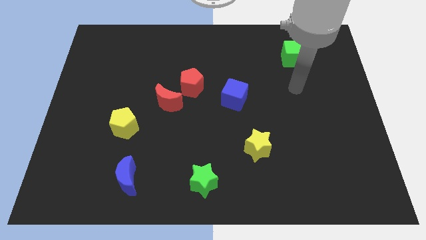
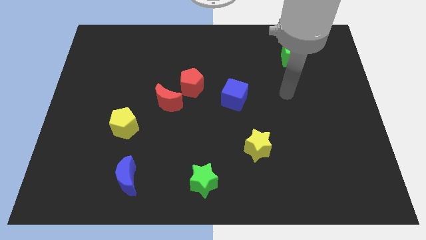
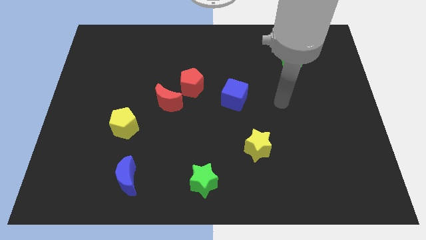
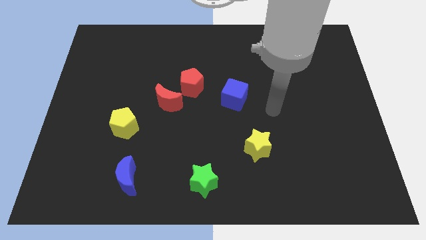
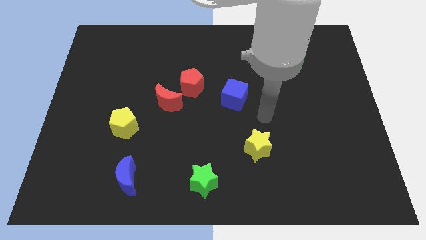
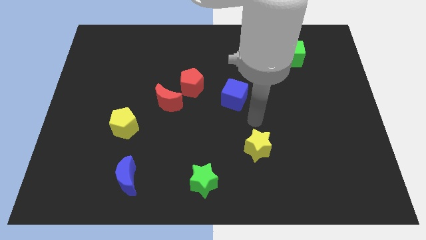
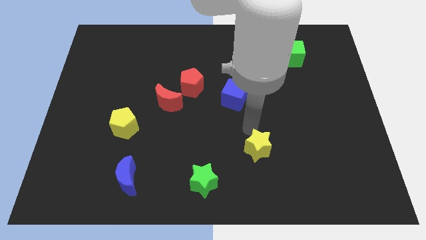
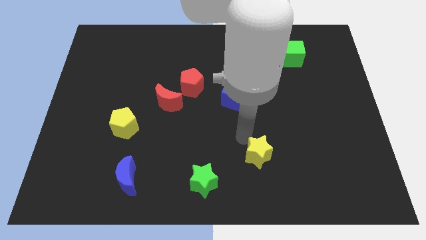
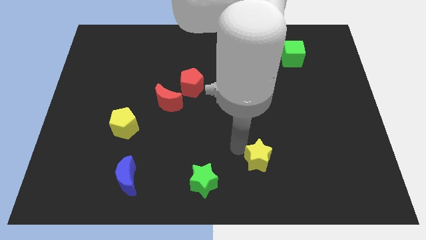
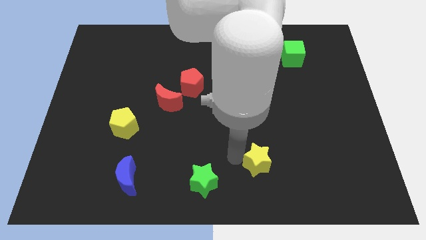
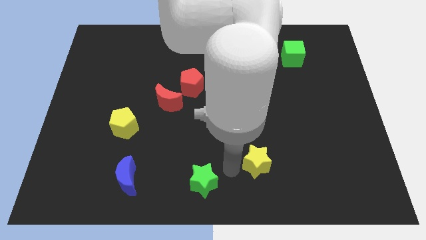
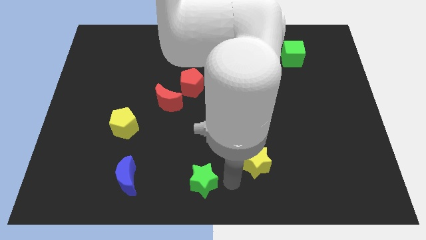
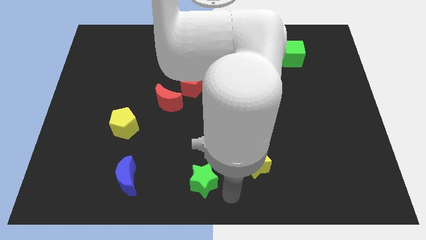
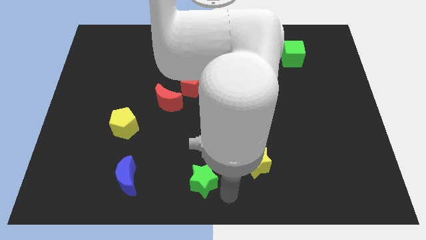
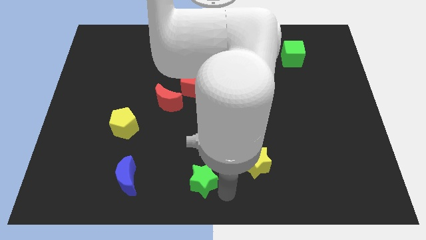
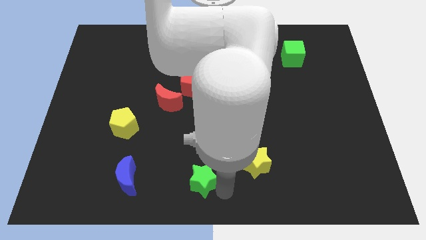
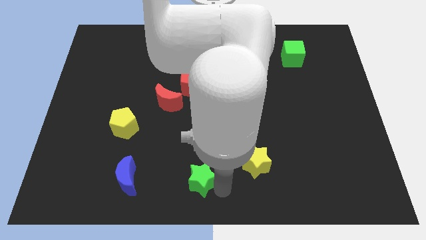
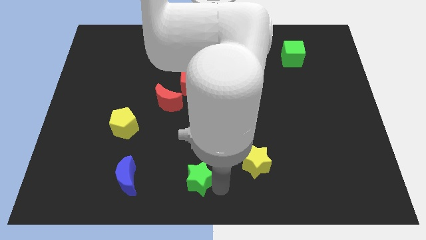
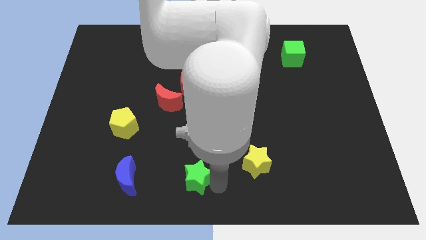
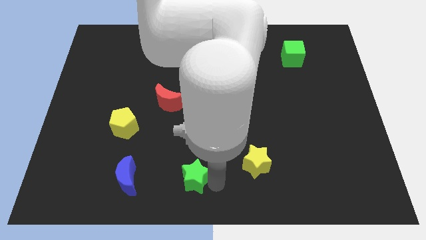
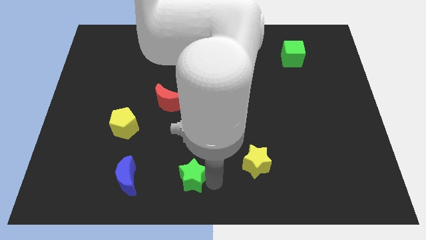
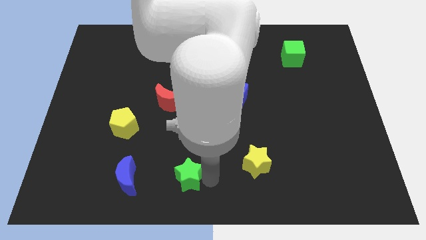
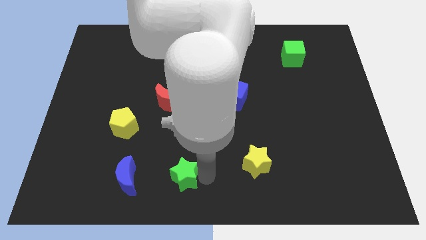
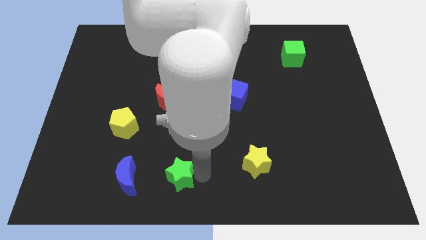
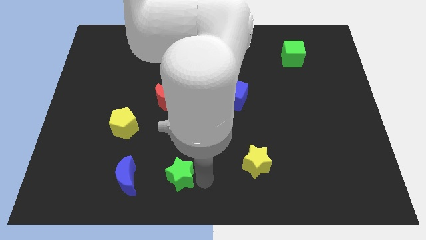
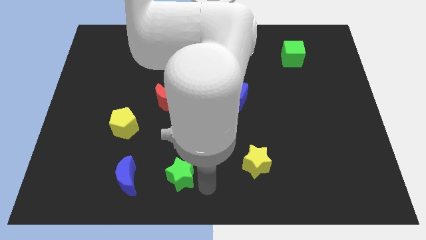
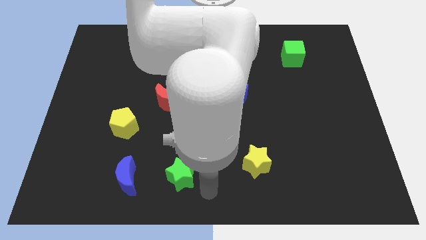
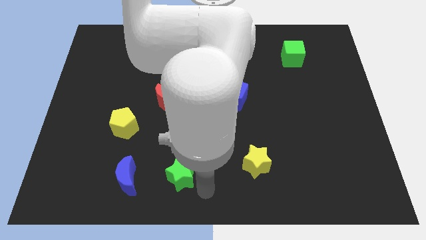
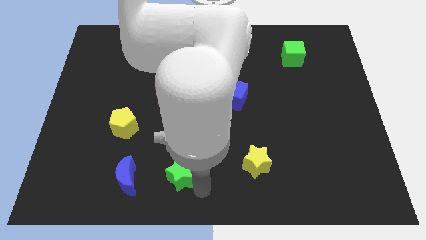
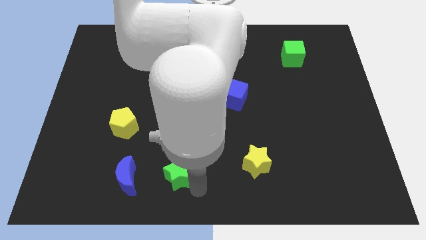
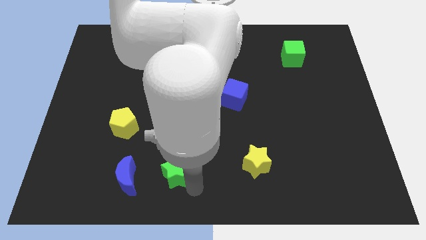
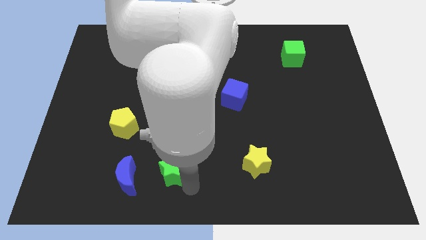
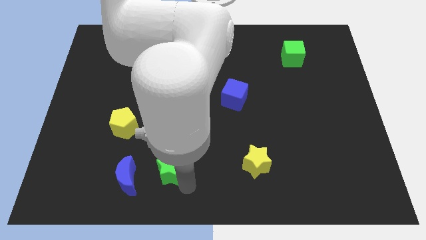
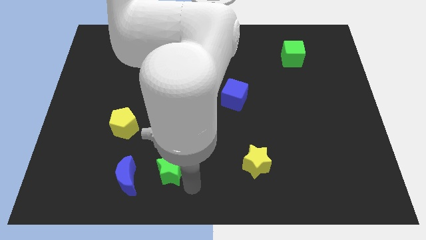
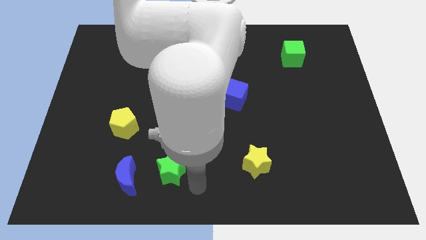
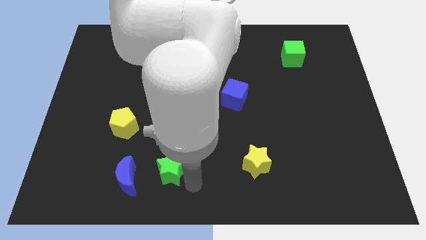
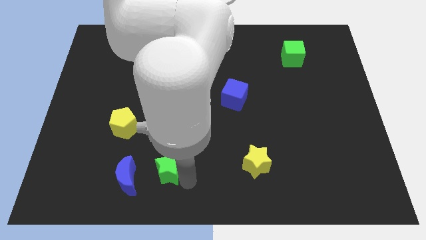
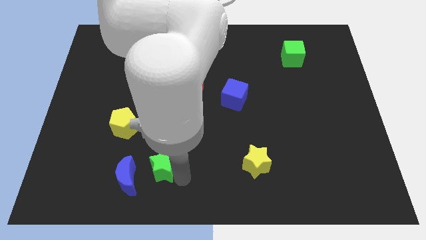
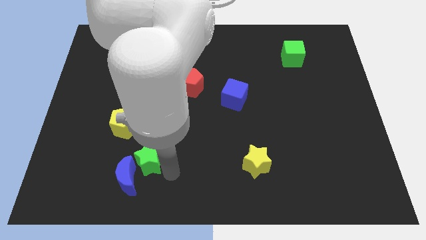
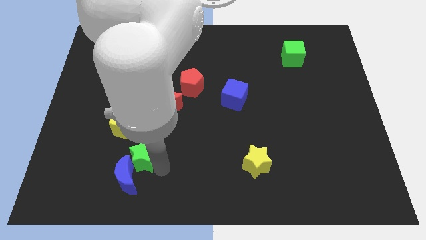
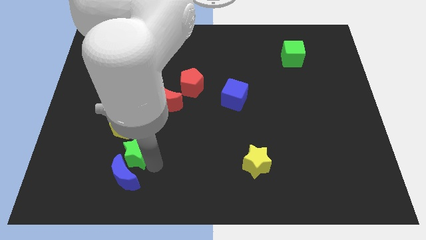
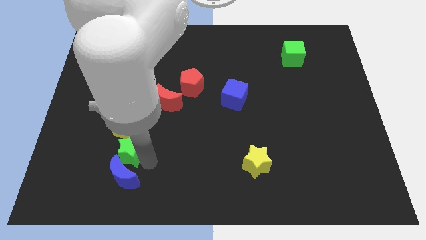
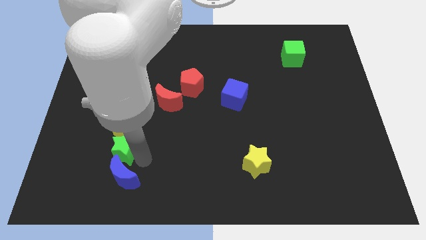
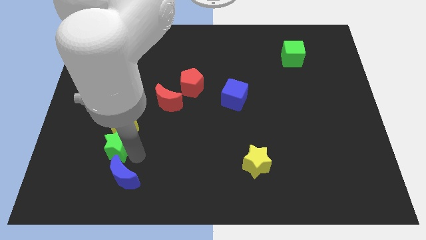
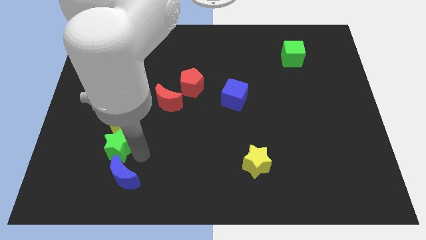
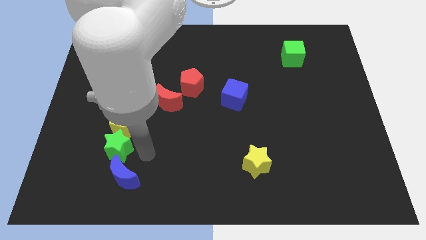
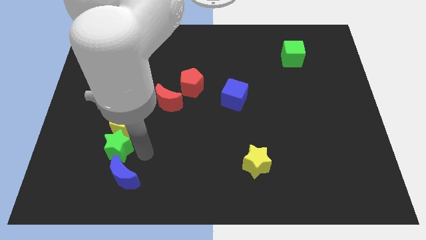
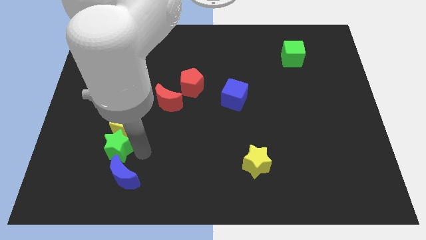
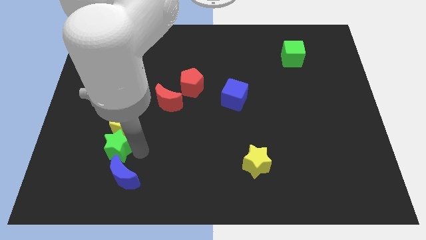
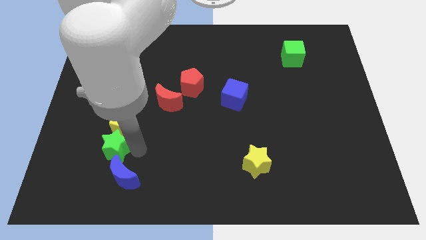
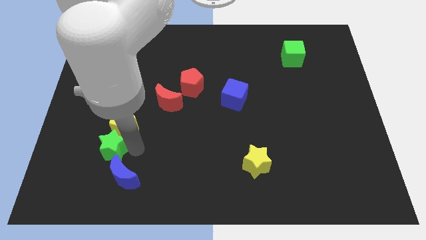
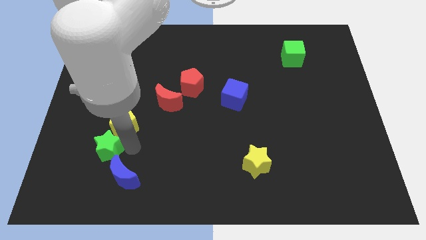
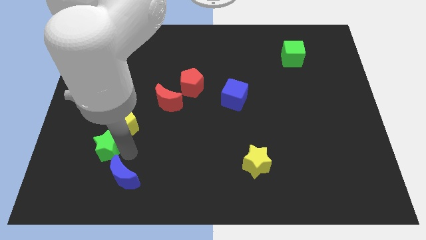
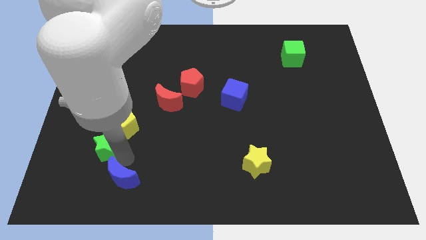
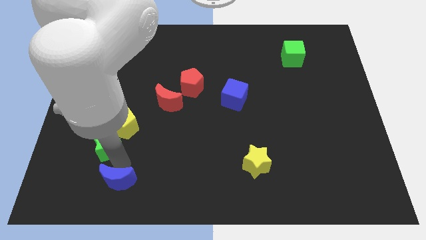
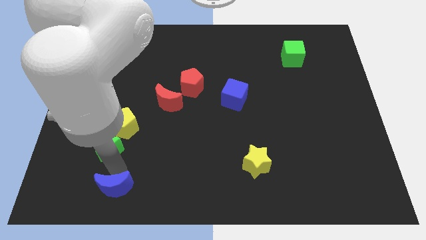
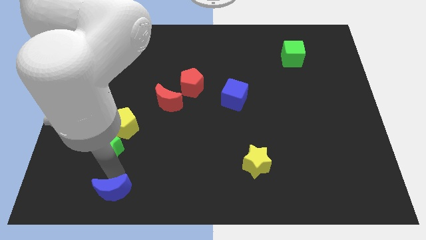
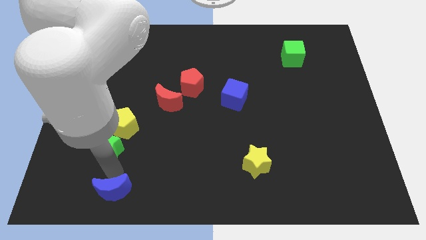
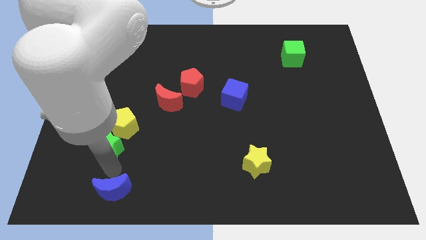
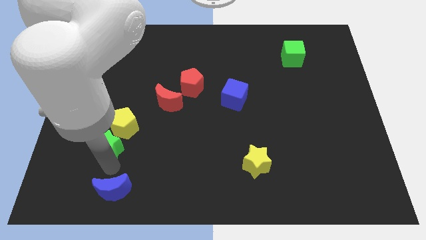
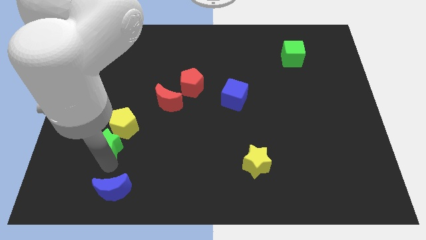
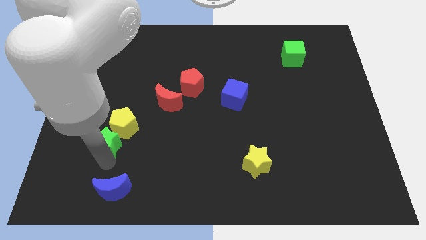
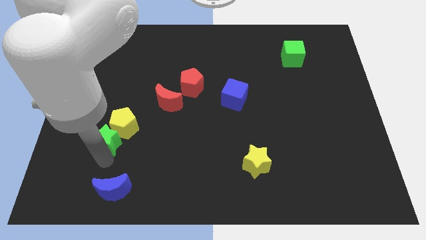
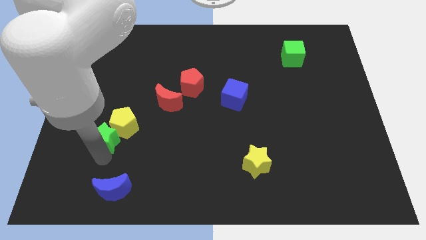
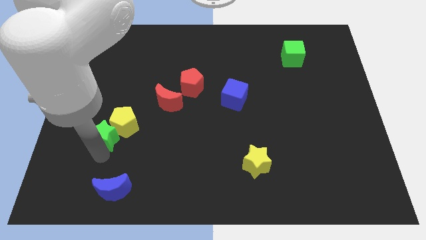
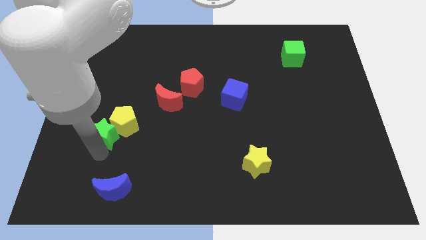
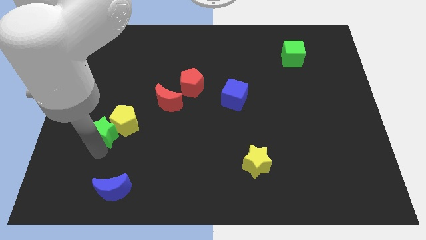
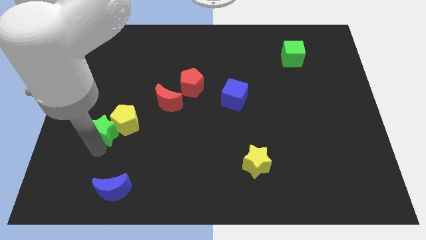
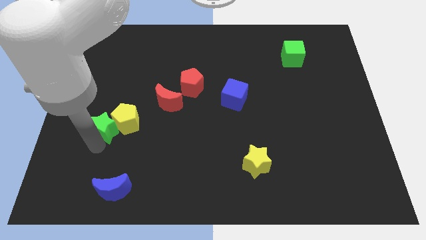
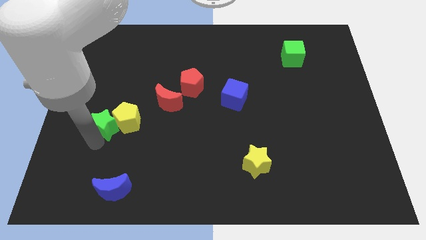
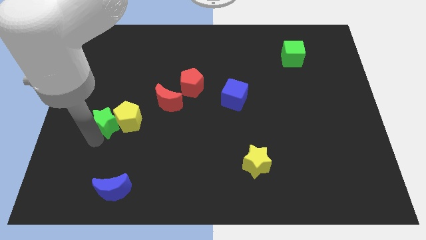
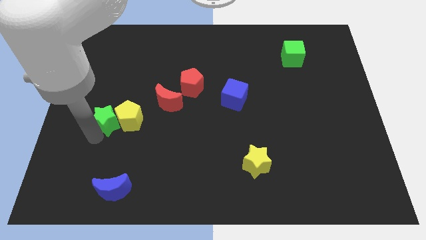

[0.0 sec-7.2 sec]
push the green star diagonally up and to the left of the yellow pentagon

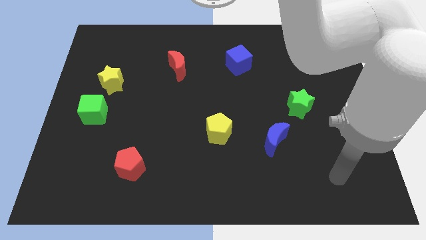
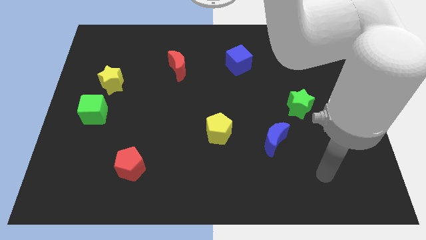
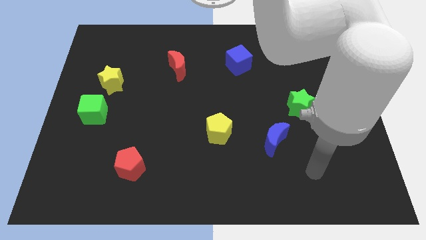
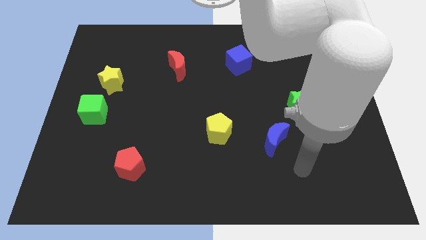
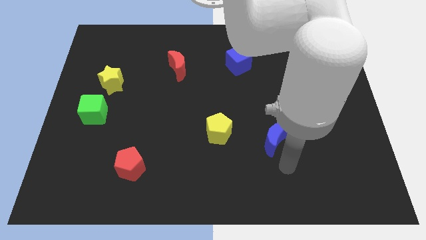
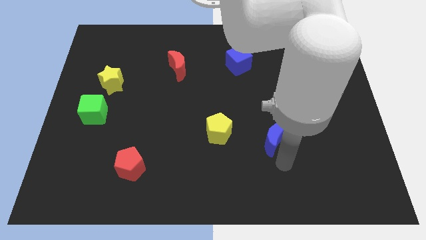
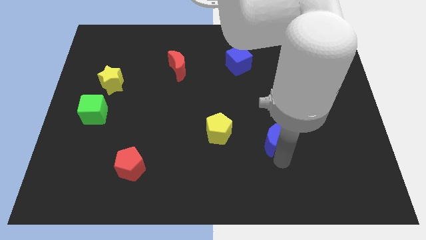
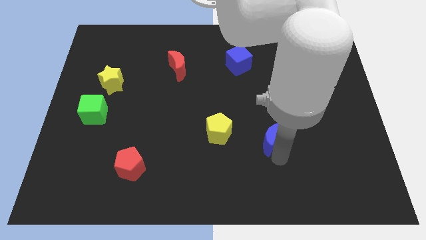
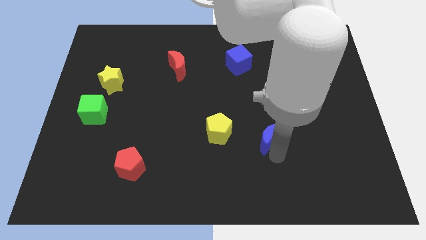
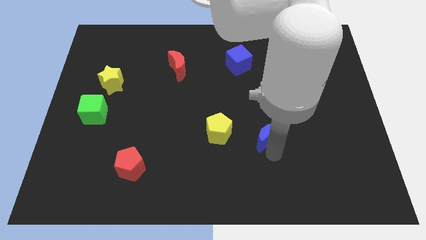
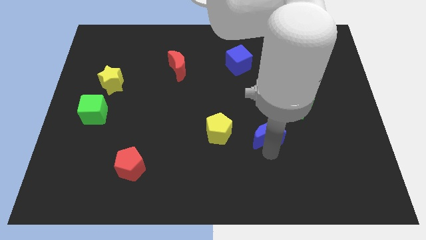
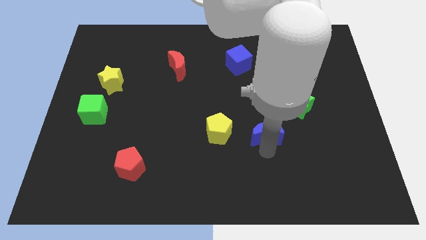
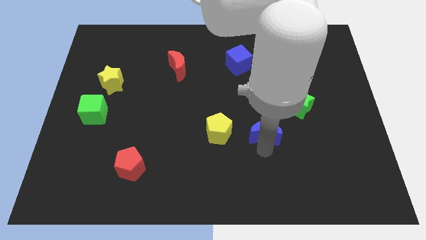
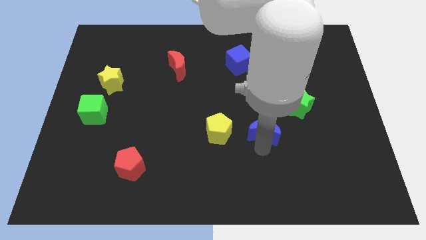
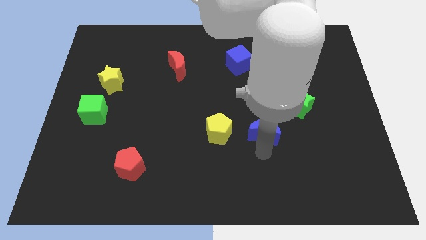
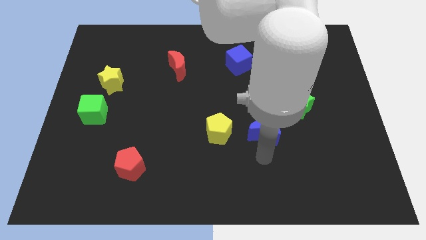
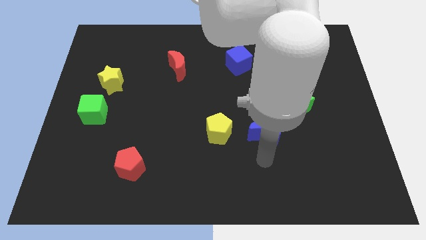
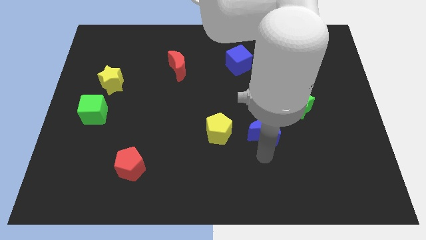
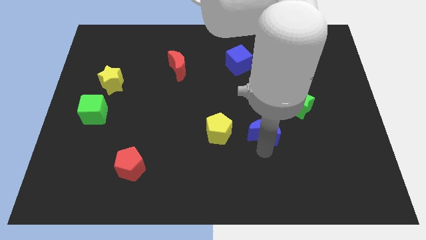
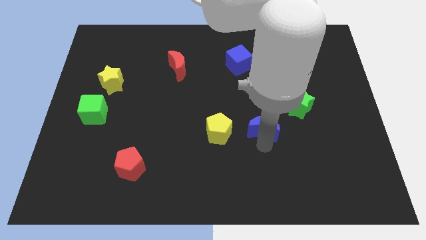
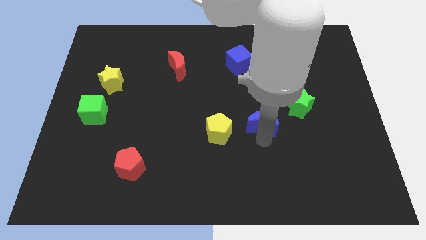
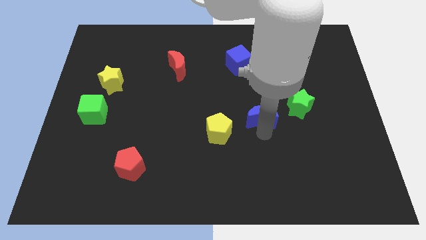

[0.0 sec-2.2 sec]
slide the blue moon just left of the green star
